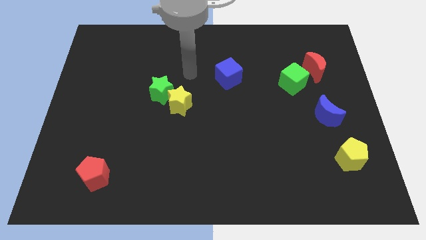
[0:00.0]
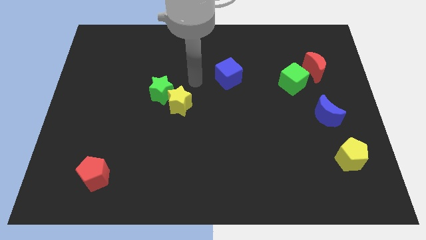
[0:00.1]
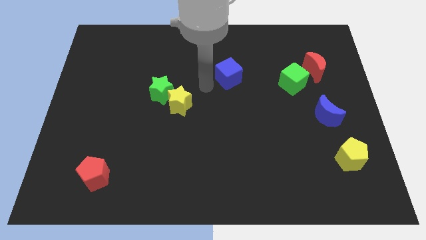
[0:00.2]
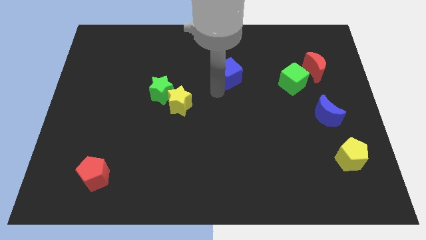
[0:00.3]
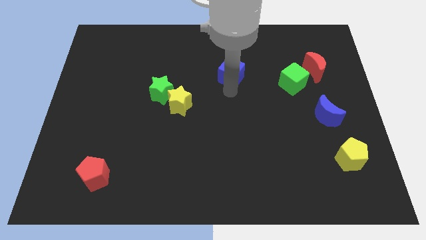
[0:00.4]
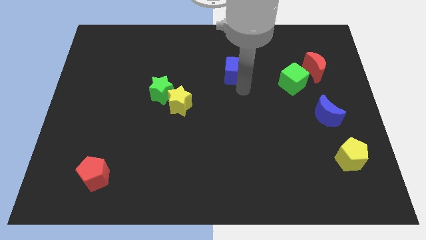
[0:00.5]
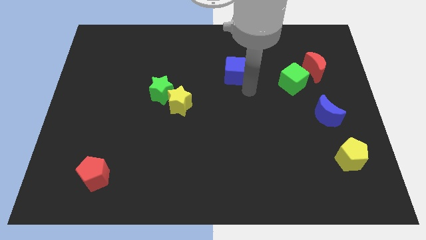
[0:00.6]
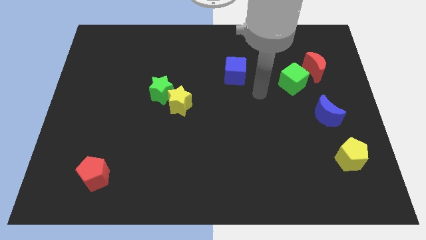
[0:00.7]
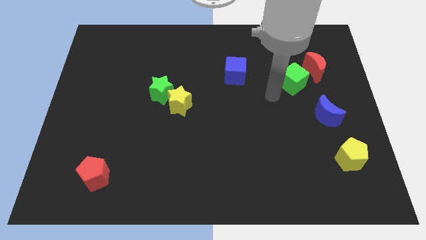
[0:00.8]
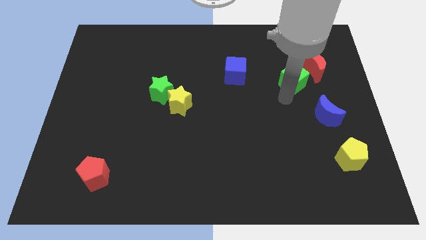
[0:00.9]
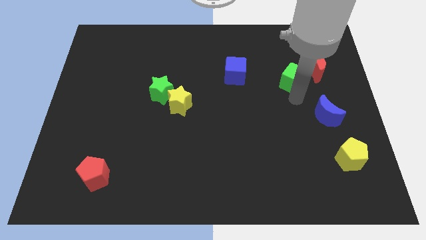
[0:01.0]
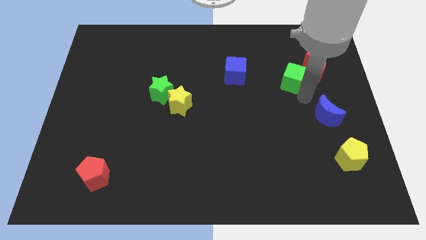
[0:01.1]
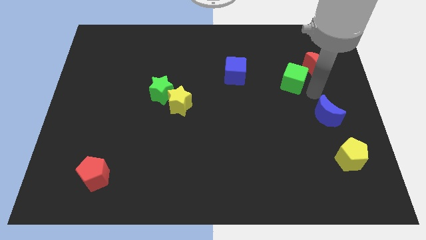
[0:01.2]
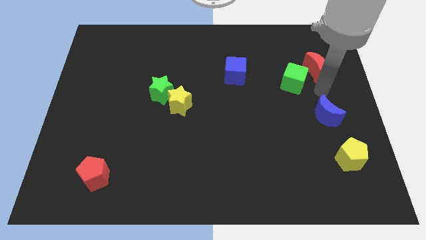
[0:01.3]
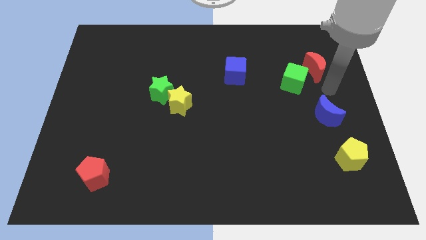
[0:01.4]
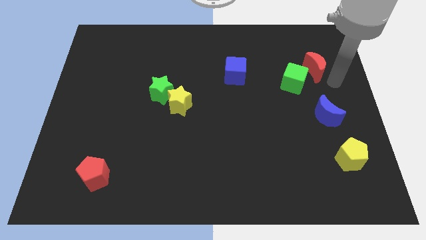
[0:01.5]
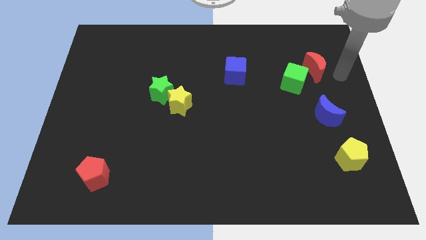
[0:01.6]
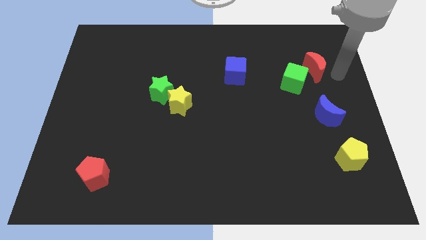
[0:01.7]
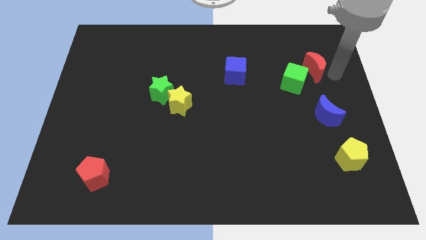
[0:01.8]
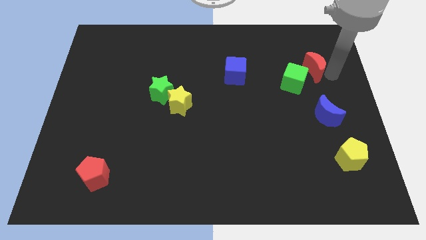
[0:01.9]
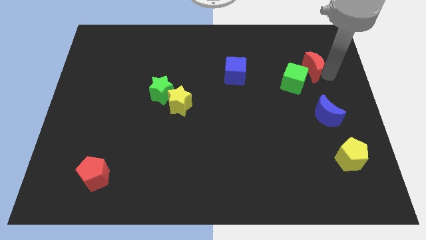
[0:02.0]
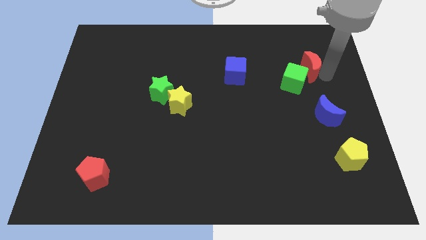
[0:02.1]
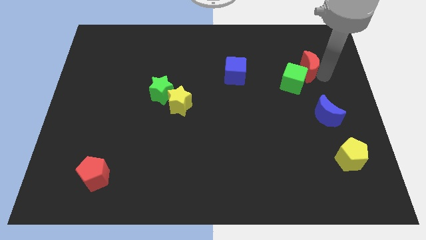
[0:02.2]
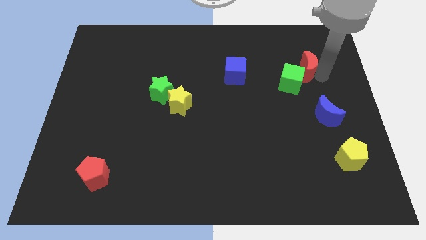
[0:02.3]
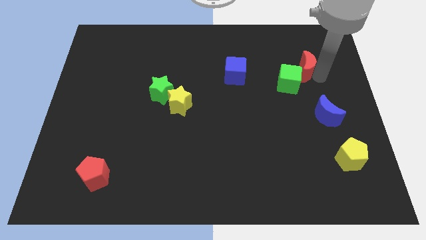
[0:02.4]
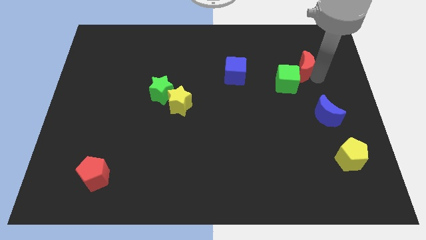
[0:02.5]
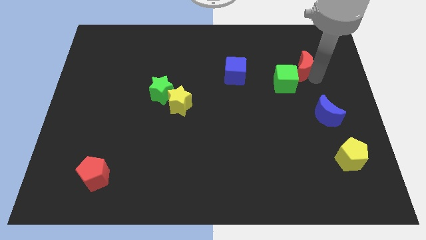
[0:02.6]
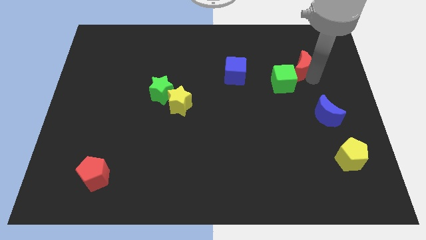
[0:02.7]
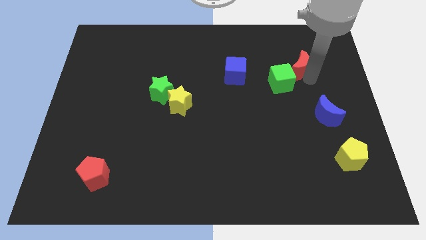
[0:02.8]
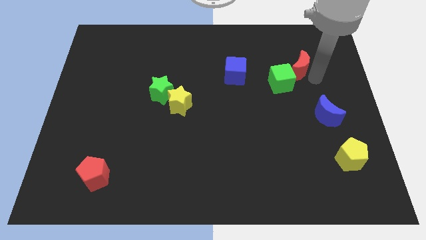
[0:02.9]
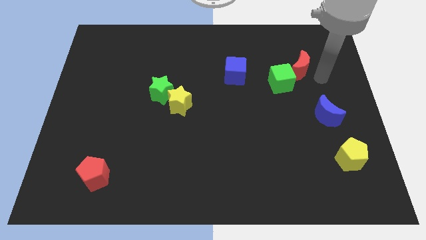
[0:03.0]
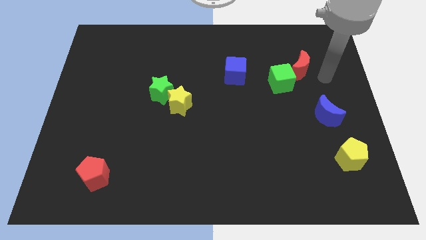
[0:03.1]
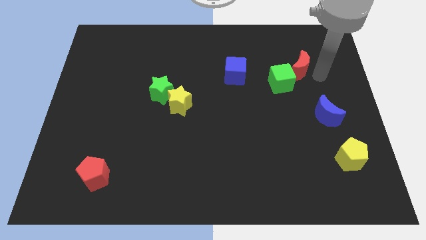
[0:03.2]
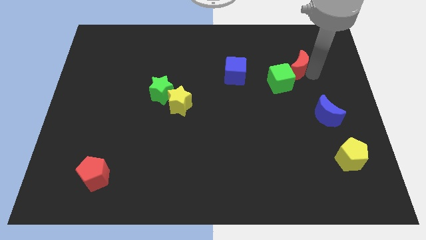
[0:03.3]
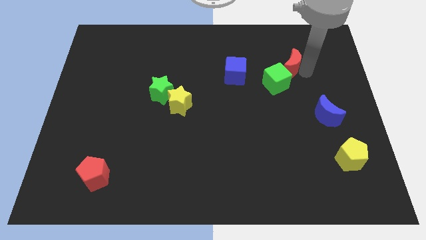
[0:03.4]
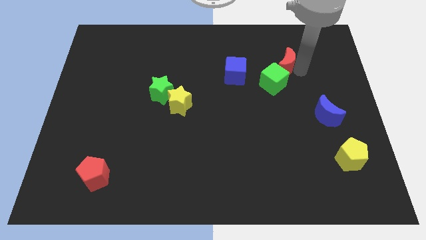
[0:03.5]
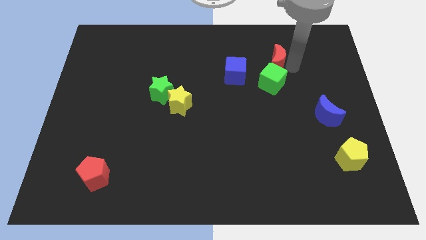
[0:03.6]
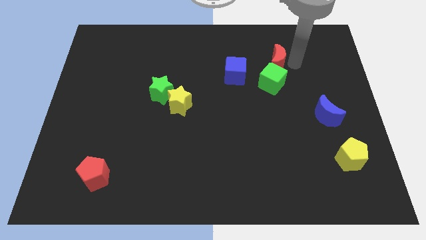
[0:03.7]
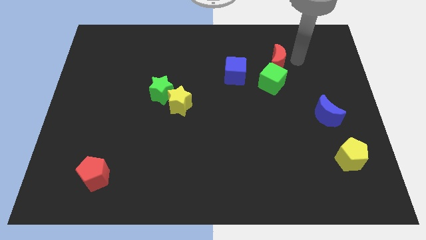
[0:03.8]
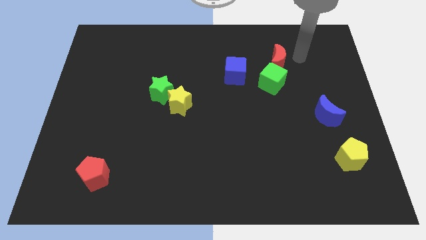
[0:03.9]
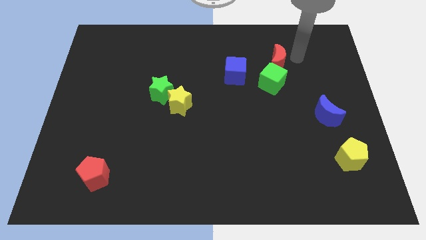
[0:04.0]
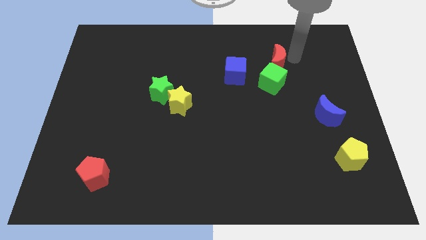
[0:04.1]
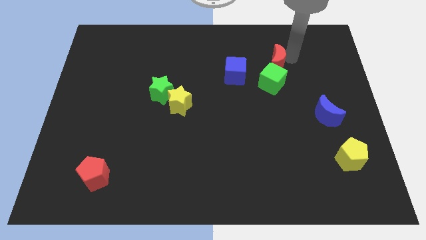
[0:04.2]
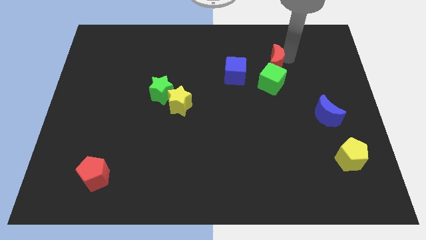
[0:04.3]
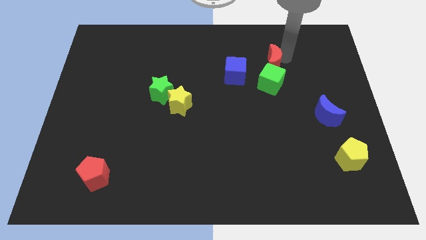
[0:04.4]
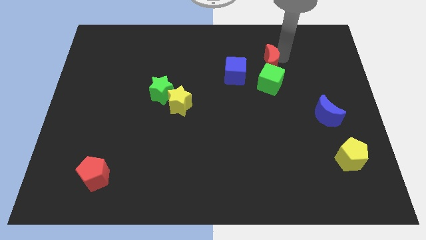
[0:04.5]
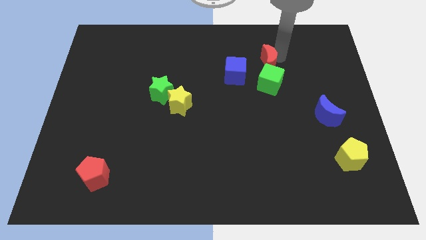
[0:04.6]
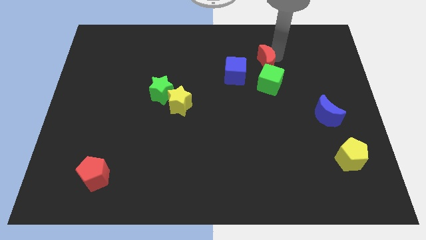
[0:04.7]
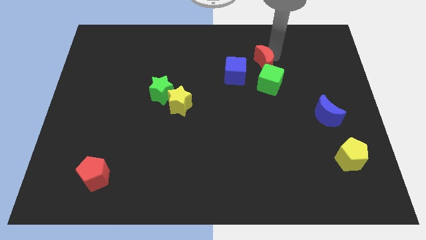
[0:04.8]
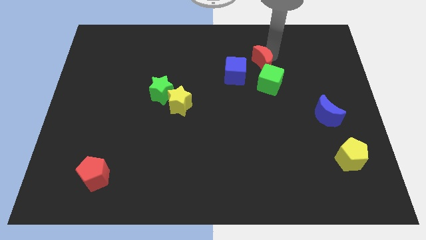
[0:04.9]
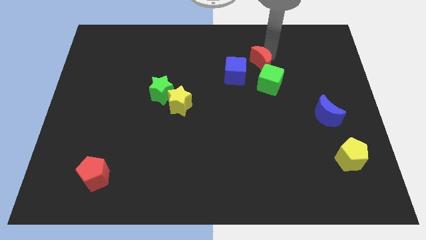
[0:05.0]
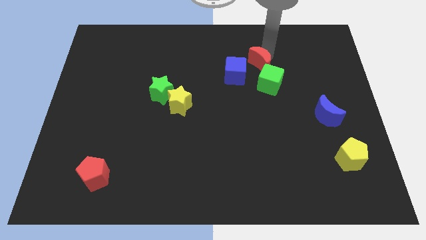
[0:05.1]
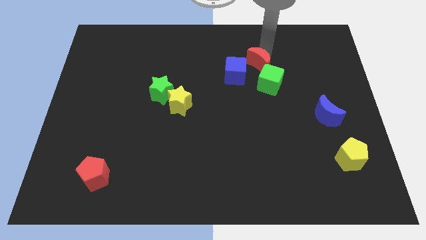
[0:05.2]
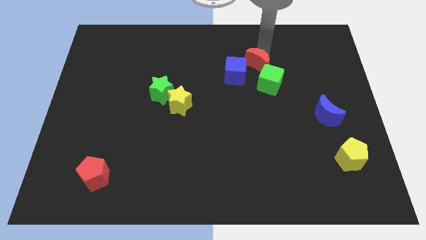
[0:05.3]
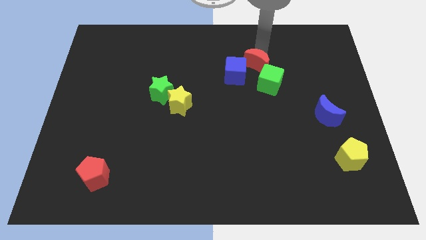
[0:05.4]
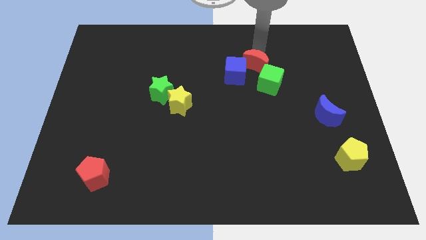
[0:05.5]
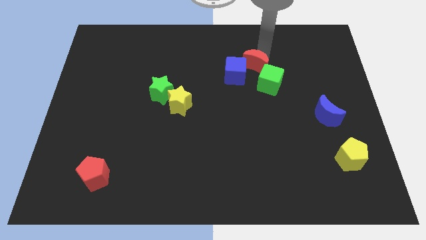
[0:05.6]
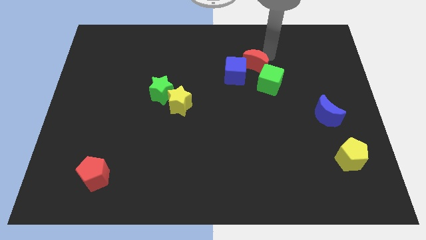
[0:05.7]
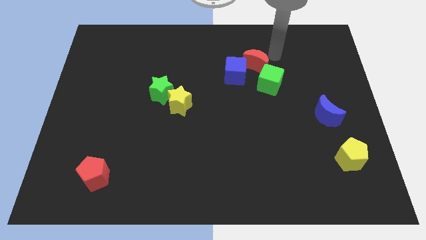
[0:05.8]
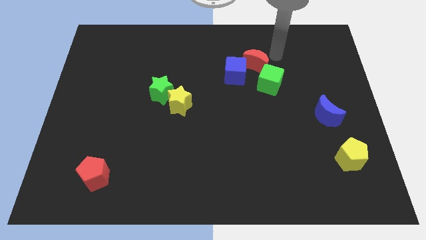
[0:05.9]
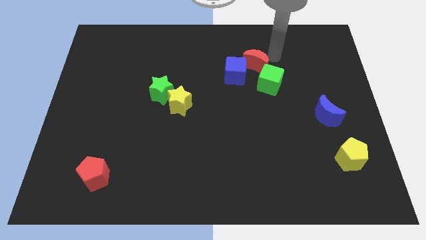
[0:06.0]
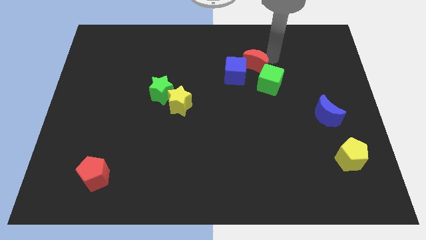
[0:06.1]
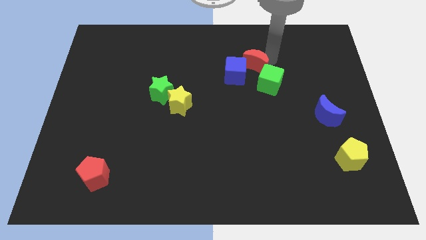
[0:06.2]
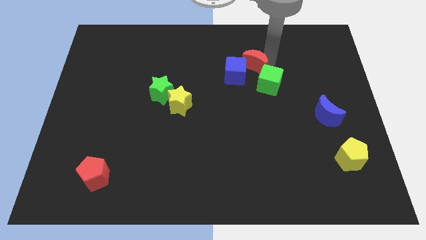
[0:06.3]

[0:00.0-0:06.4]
slide the red moon to the blue cube

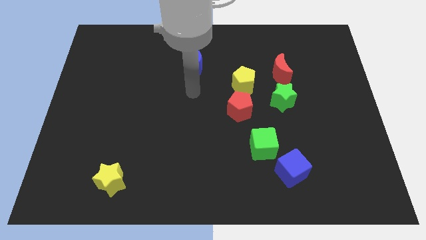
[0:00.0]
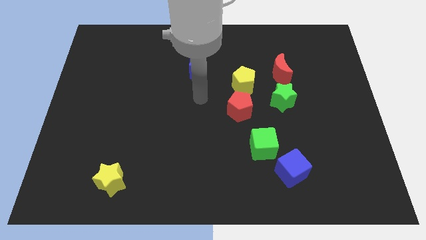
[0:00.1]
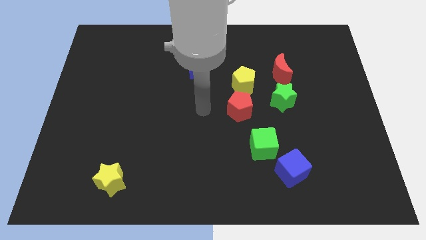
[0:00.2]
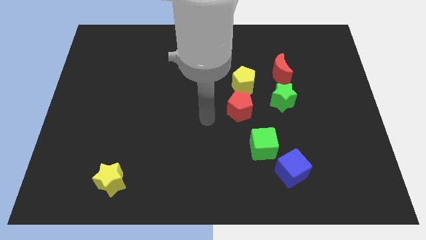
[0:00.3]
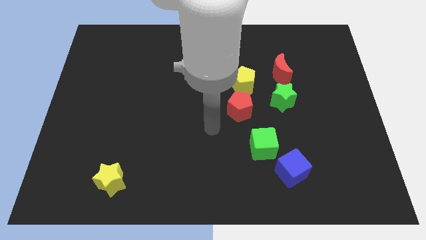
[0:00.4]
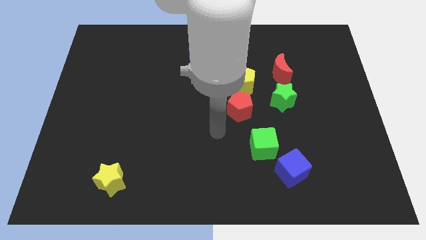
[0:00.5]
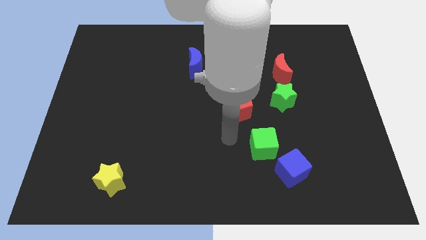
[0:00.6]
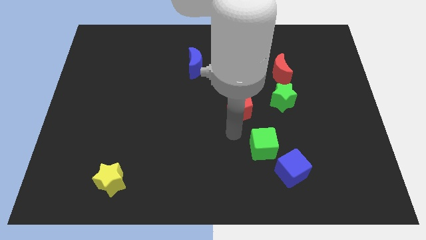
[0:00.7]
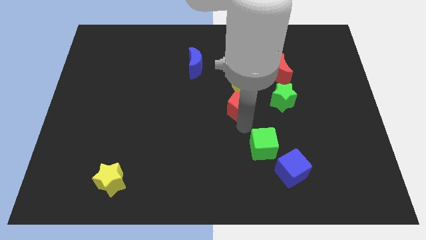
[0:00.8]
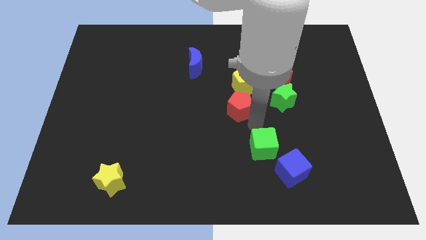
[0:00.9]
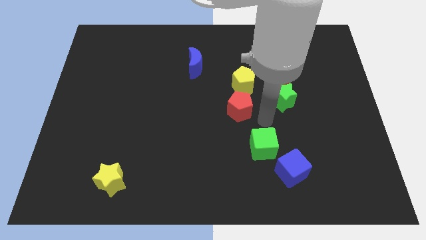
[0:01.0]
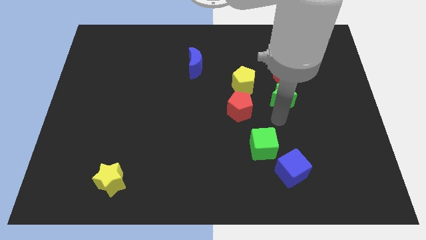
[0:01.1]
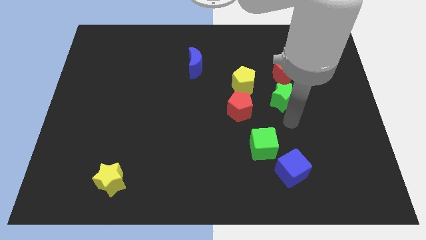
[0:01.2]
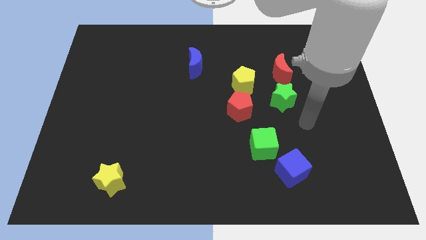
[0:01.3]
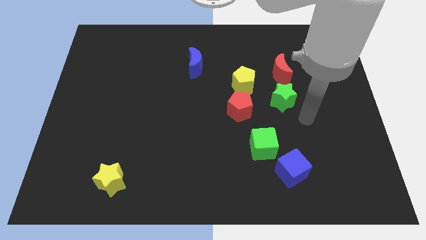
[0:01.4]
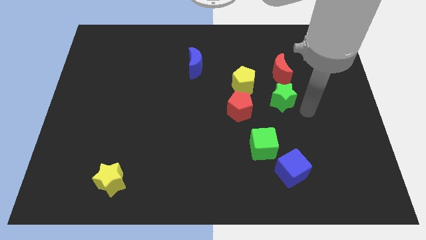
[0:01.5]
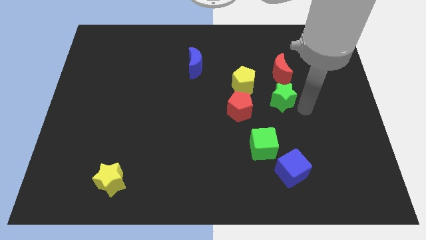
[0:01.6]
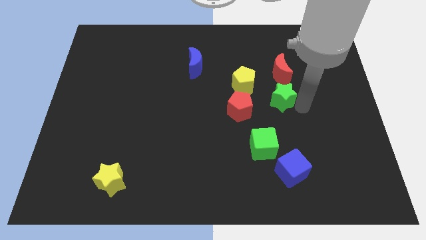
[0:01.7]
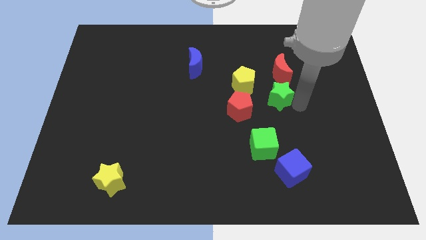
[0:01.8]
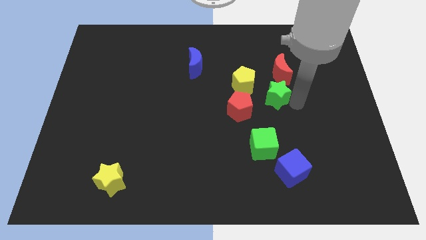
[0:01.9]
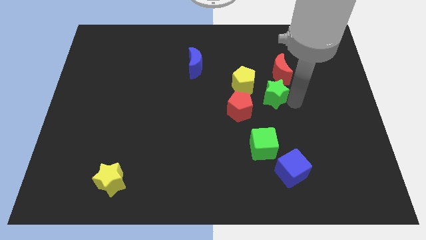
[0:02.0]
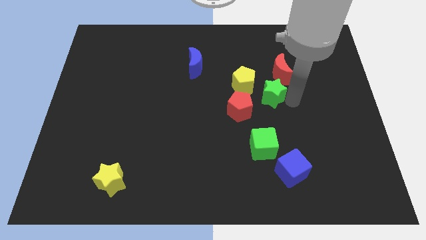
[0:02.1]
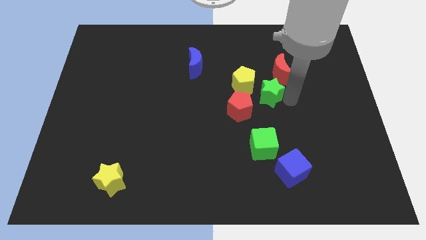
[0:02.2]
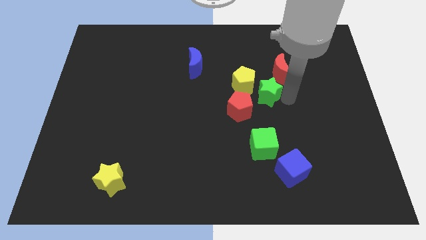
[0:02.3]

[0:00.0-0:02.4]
push the green star to the yellow pentagon

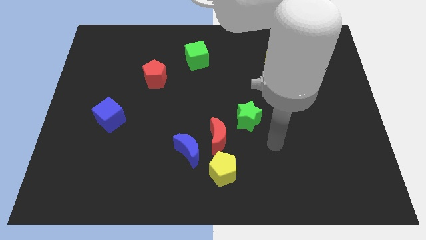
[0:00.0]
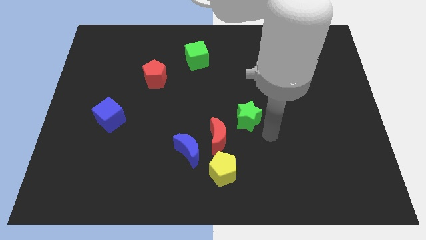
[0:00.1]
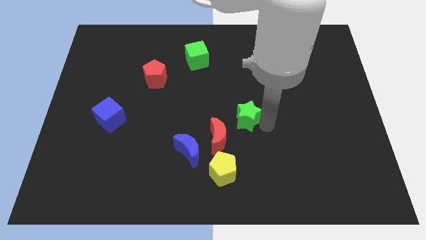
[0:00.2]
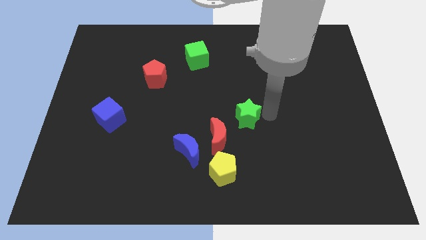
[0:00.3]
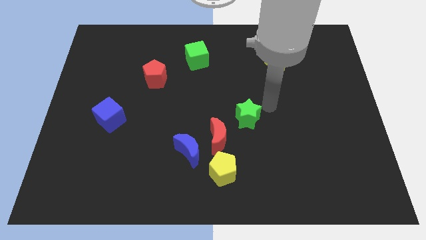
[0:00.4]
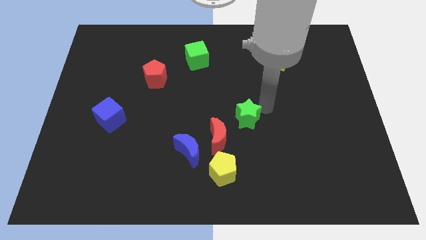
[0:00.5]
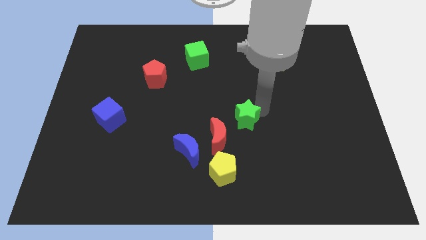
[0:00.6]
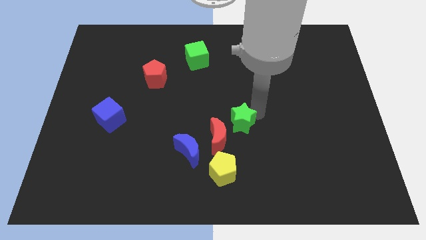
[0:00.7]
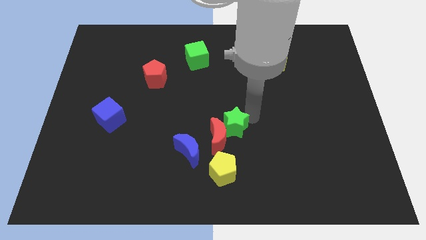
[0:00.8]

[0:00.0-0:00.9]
put the green star close to the red moon
